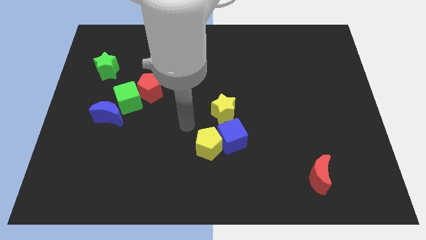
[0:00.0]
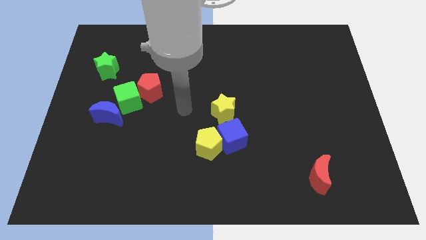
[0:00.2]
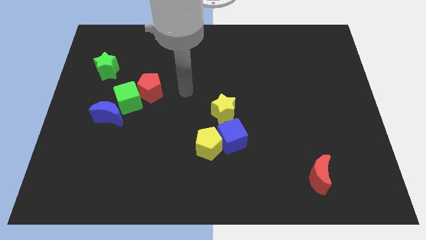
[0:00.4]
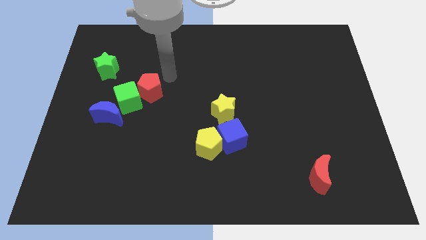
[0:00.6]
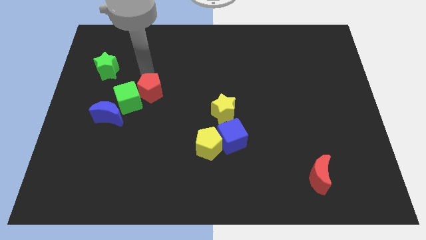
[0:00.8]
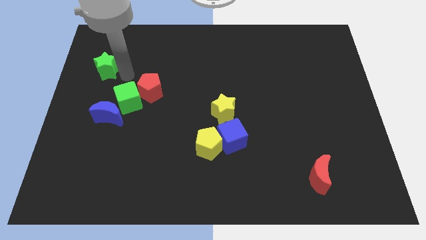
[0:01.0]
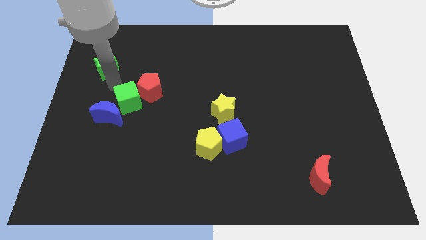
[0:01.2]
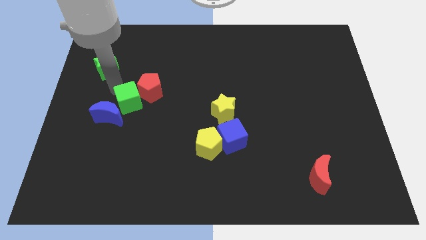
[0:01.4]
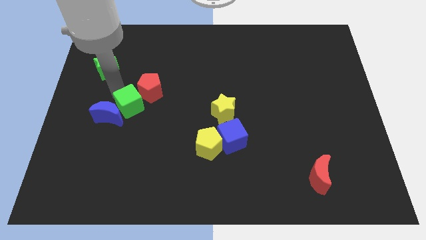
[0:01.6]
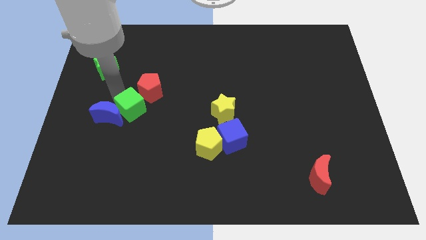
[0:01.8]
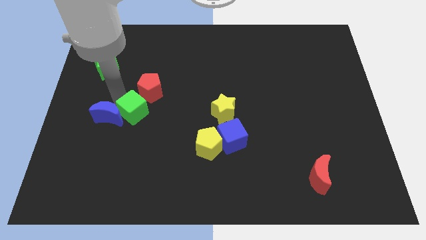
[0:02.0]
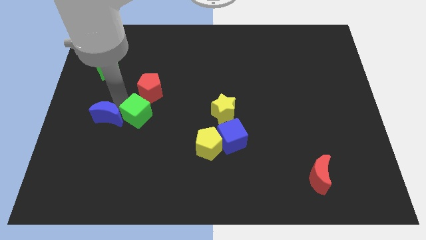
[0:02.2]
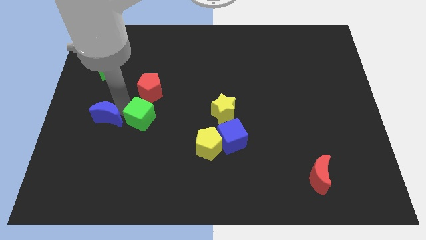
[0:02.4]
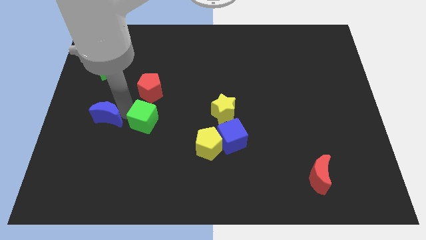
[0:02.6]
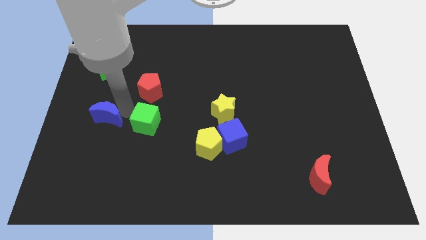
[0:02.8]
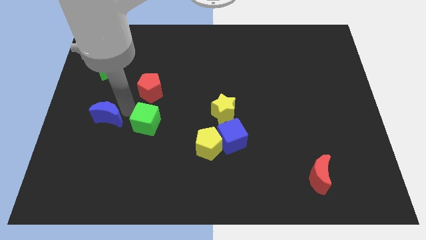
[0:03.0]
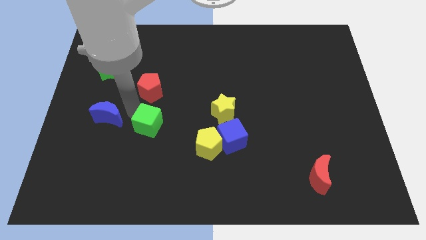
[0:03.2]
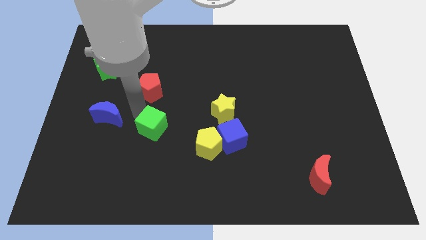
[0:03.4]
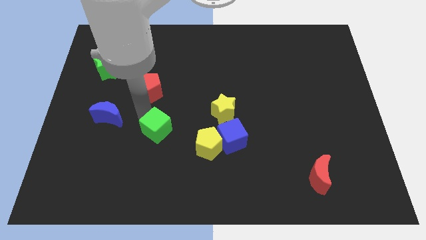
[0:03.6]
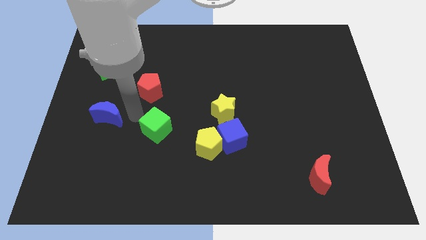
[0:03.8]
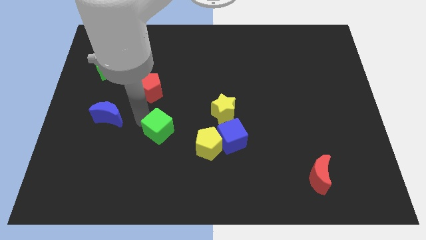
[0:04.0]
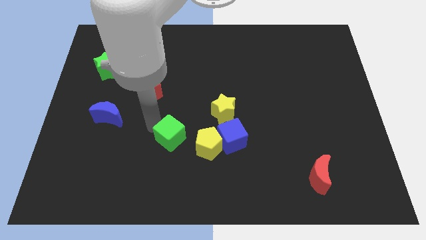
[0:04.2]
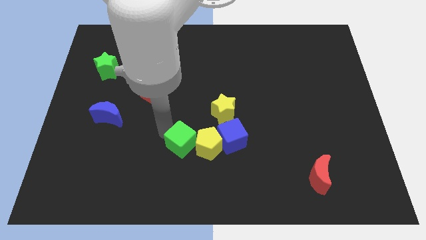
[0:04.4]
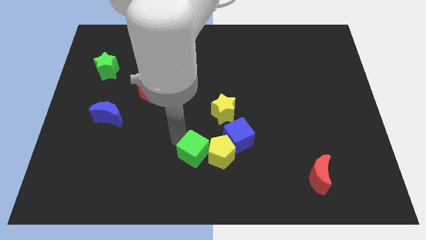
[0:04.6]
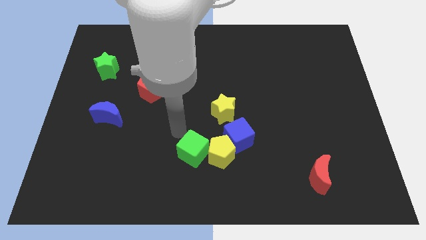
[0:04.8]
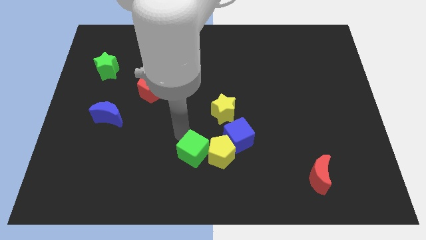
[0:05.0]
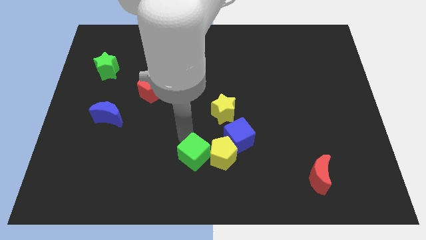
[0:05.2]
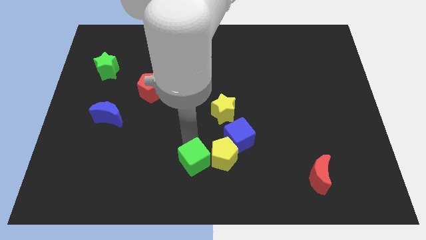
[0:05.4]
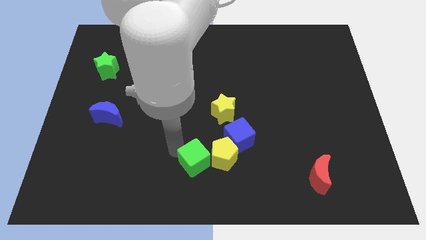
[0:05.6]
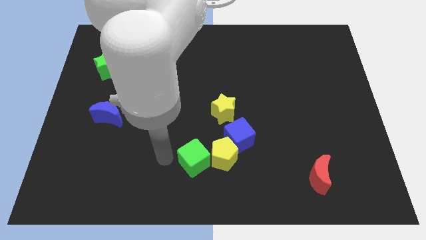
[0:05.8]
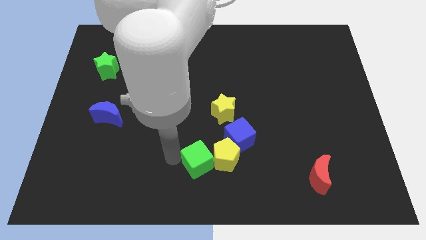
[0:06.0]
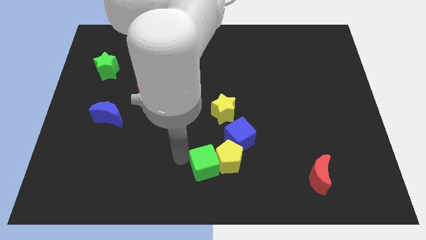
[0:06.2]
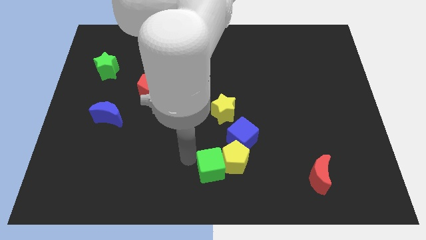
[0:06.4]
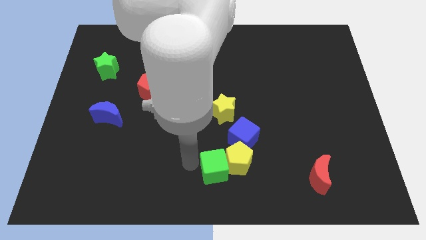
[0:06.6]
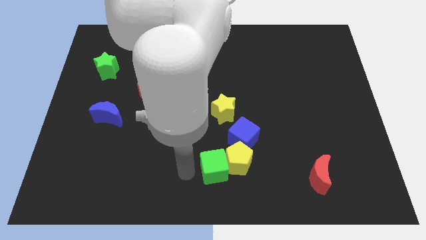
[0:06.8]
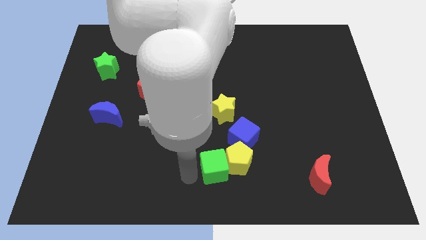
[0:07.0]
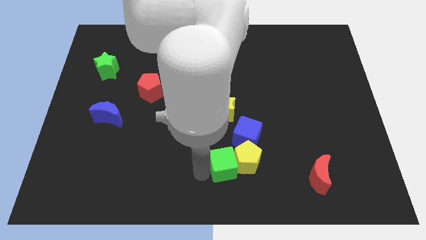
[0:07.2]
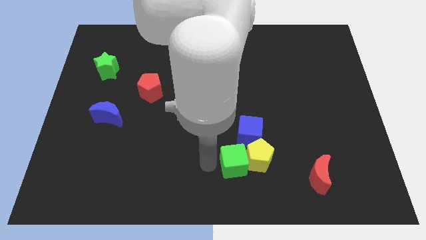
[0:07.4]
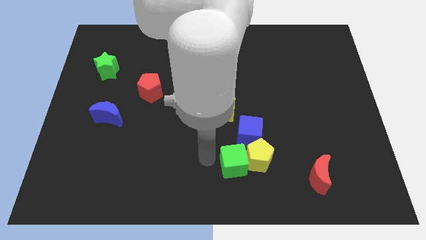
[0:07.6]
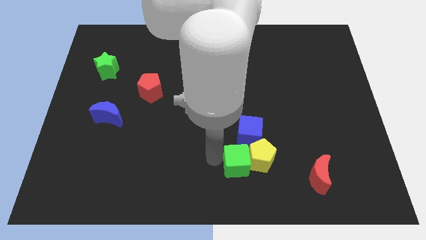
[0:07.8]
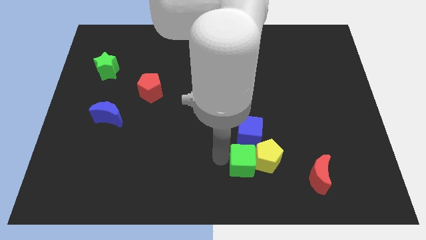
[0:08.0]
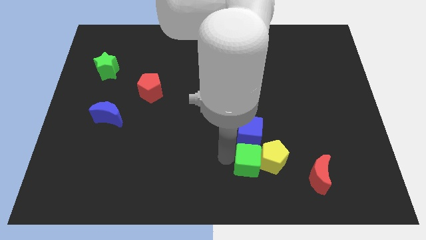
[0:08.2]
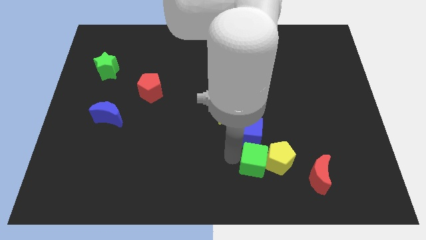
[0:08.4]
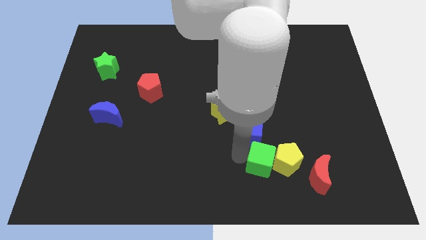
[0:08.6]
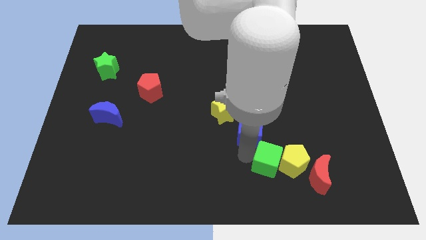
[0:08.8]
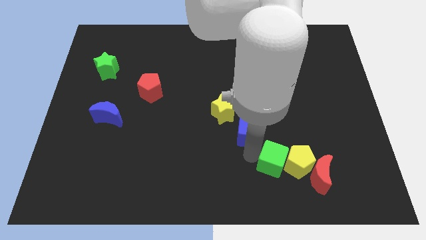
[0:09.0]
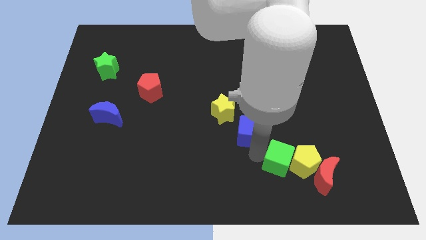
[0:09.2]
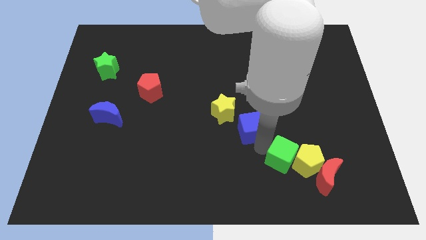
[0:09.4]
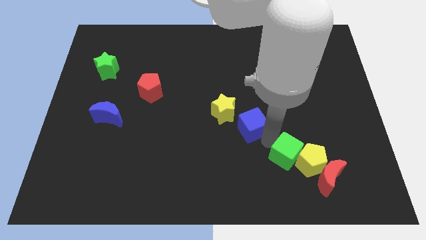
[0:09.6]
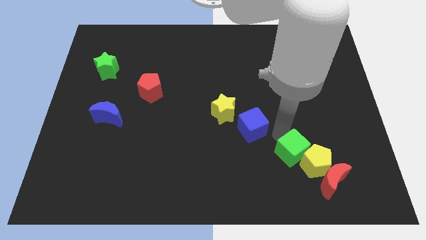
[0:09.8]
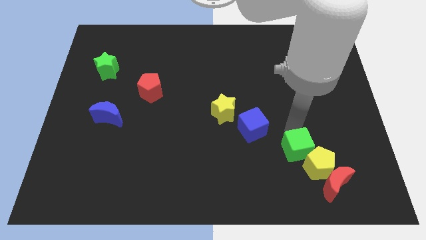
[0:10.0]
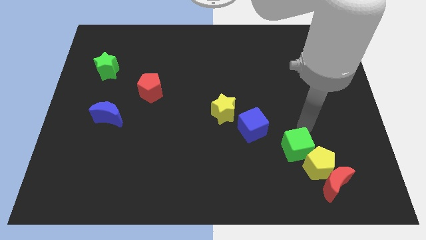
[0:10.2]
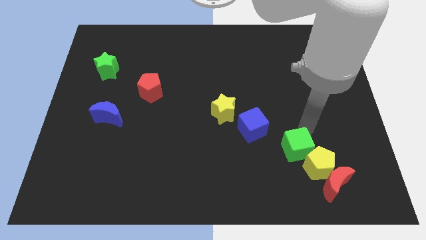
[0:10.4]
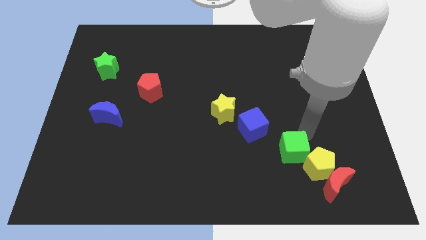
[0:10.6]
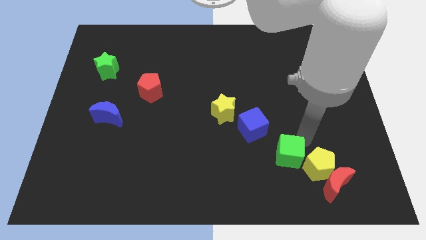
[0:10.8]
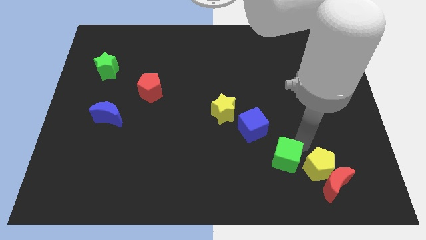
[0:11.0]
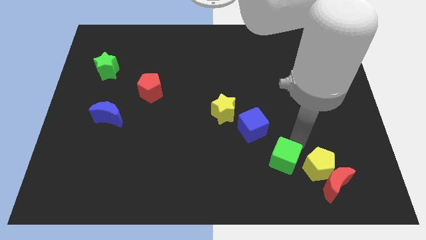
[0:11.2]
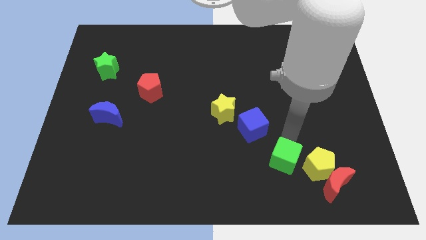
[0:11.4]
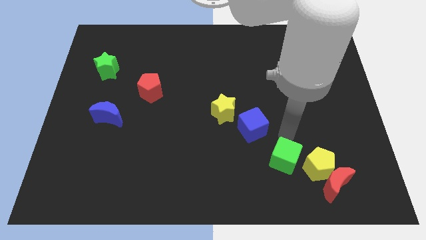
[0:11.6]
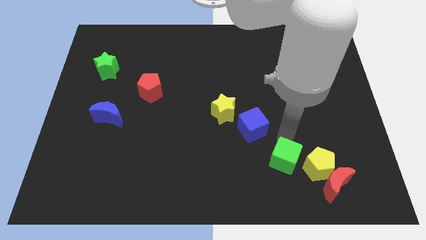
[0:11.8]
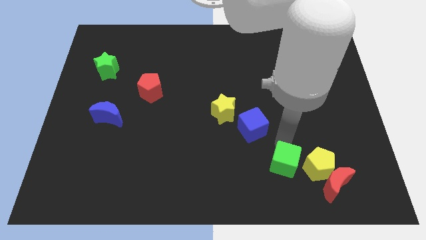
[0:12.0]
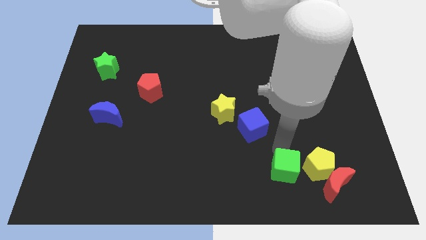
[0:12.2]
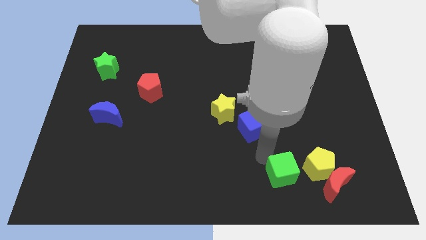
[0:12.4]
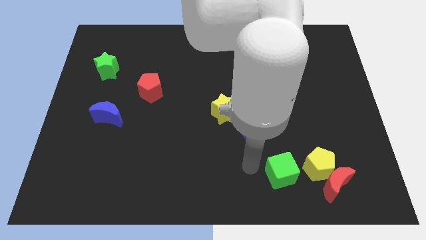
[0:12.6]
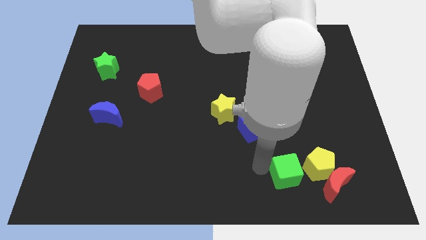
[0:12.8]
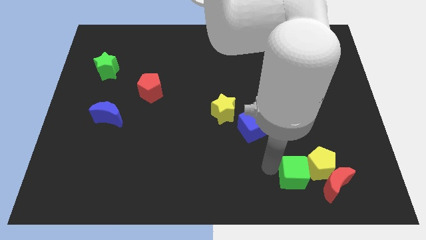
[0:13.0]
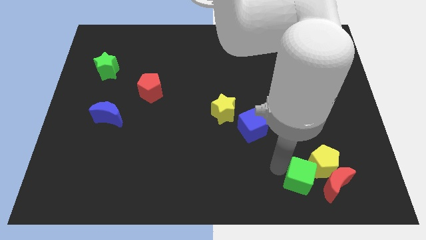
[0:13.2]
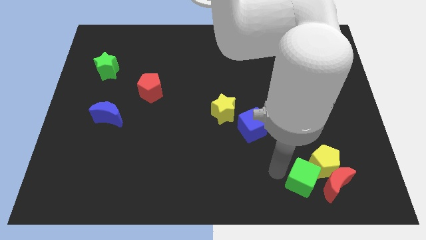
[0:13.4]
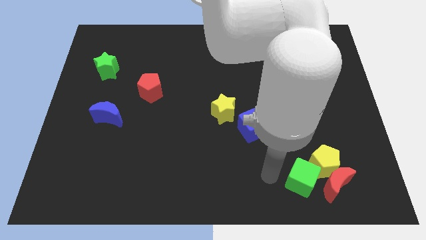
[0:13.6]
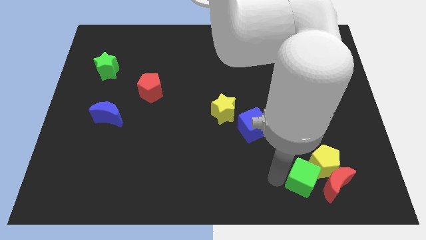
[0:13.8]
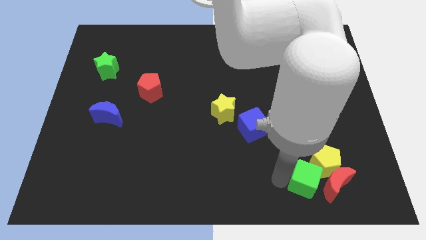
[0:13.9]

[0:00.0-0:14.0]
put the green cube towards the red moon

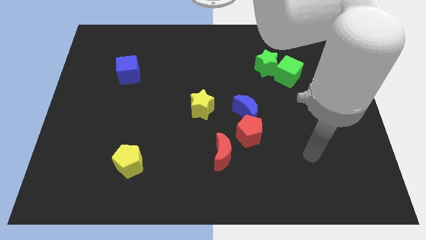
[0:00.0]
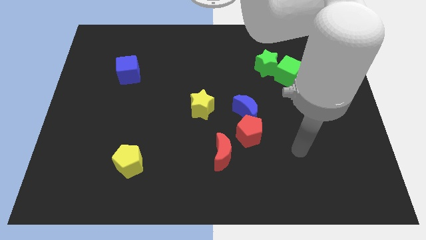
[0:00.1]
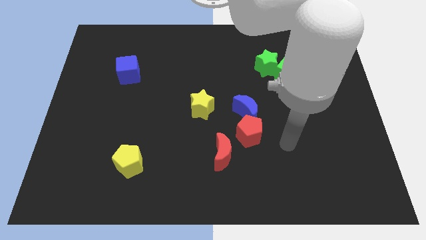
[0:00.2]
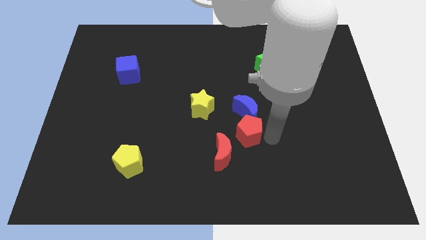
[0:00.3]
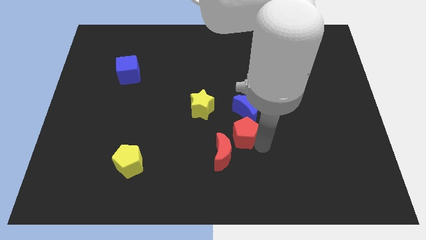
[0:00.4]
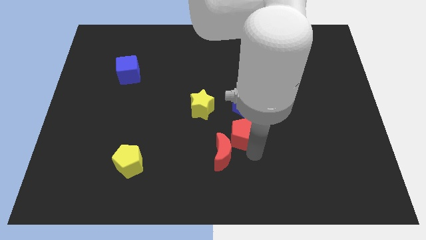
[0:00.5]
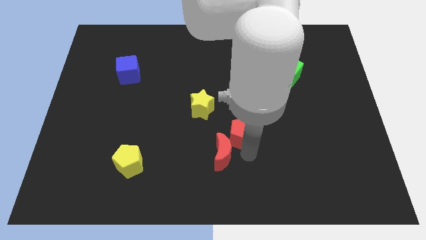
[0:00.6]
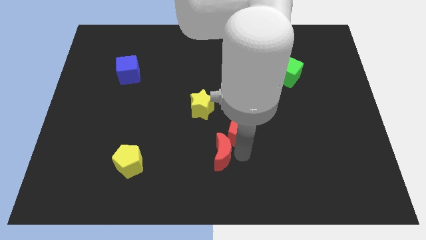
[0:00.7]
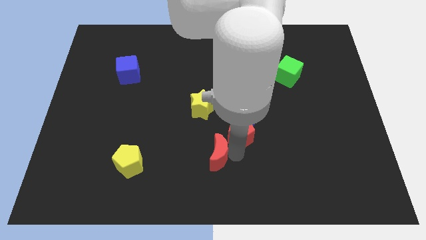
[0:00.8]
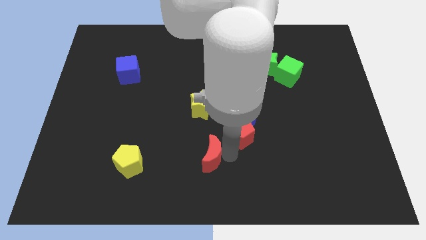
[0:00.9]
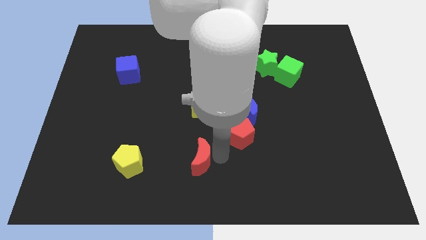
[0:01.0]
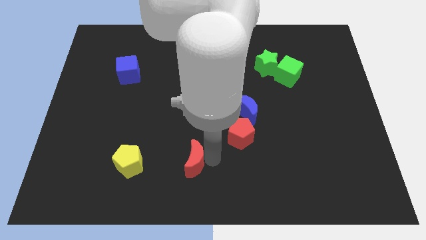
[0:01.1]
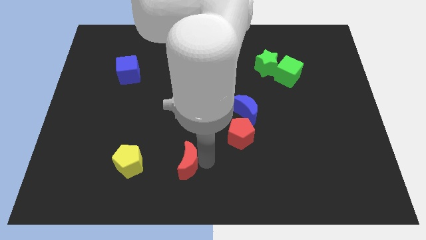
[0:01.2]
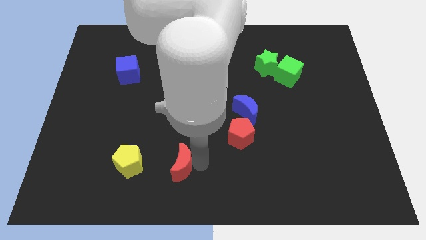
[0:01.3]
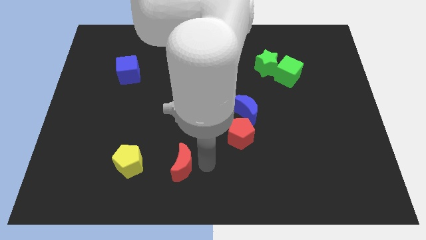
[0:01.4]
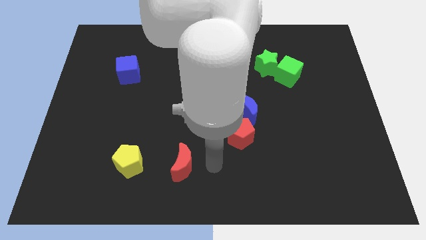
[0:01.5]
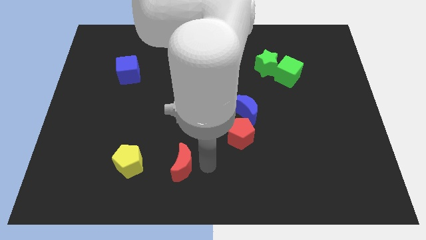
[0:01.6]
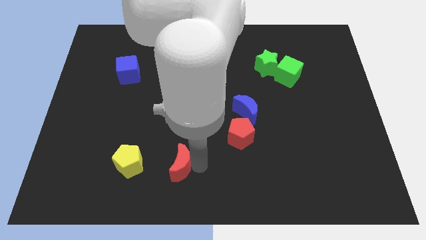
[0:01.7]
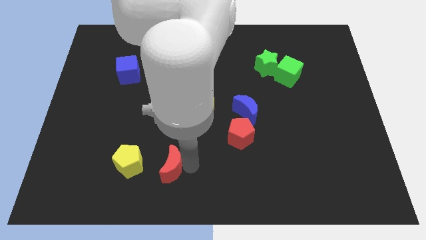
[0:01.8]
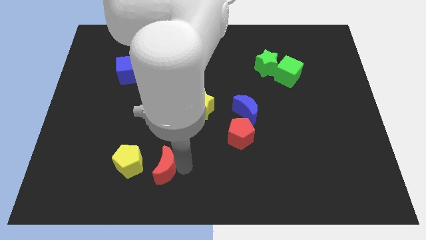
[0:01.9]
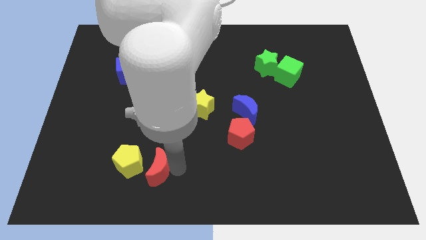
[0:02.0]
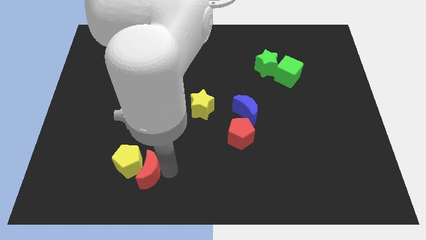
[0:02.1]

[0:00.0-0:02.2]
push the red moon close to the yellow pentagon
